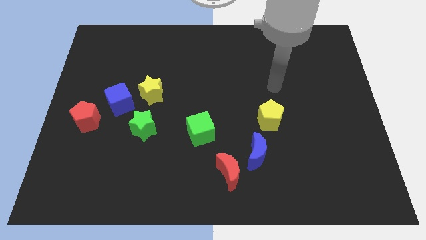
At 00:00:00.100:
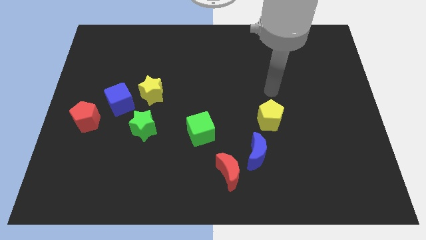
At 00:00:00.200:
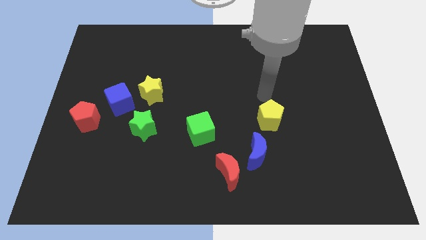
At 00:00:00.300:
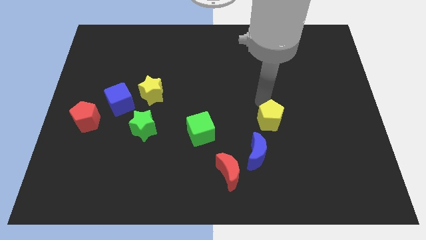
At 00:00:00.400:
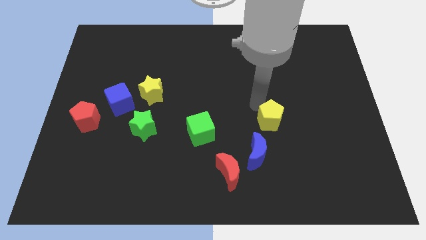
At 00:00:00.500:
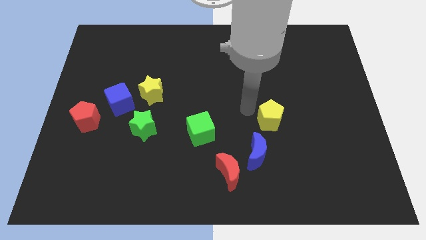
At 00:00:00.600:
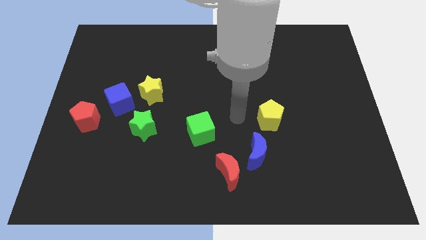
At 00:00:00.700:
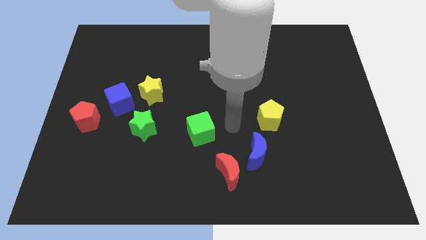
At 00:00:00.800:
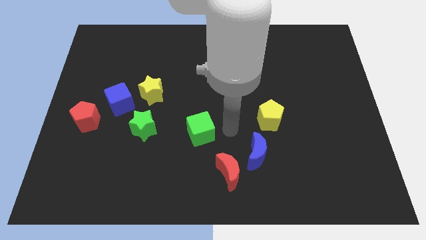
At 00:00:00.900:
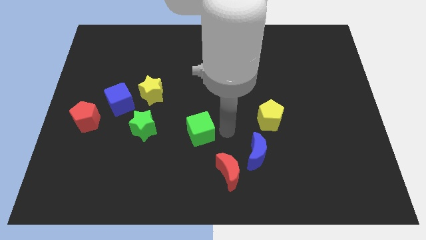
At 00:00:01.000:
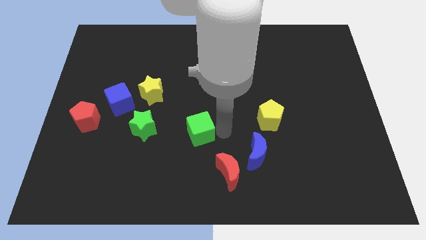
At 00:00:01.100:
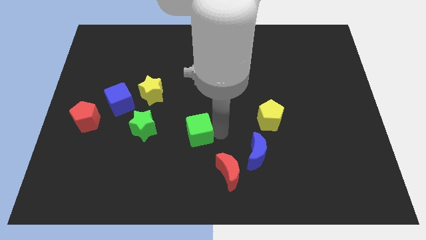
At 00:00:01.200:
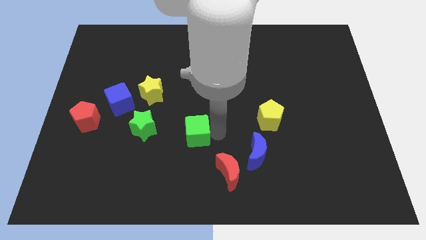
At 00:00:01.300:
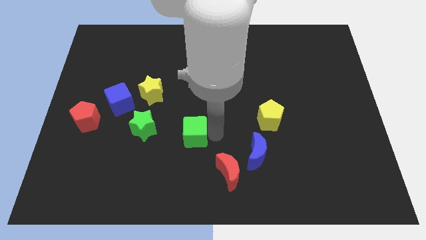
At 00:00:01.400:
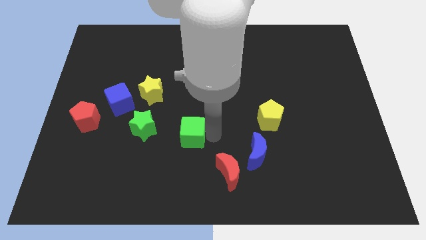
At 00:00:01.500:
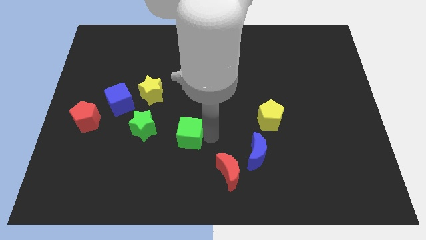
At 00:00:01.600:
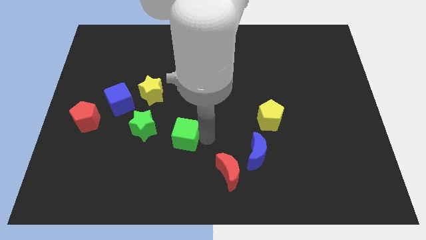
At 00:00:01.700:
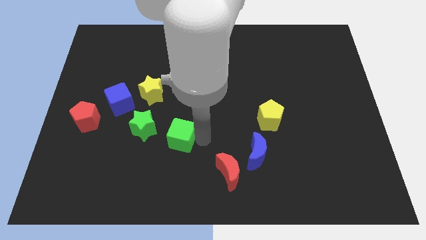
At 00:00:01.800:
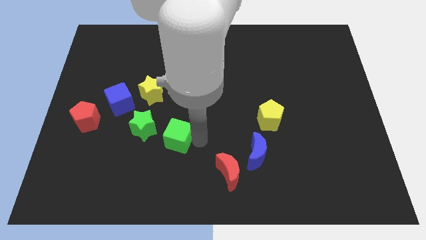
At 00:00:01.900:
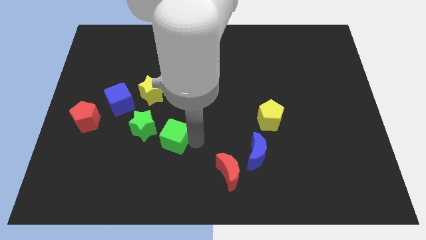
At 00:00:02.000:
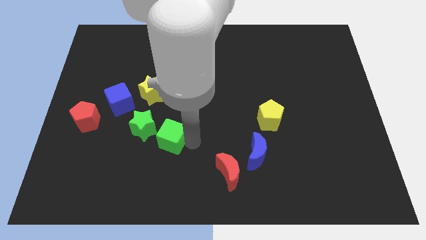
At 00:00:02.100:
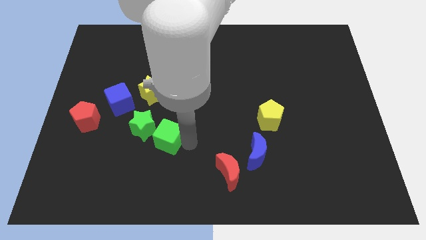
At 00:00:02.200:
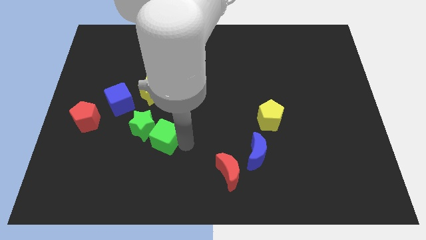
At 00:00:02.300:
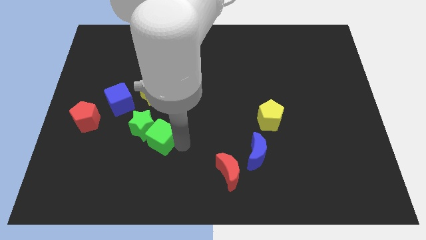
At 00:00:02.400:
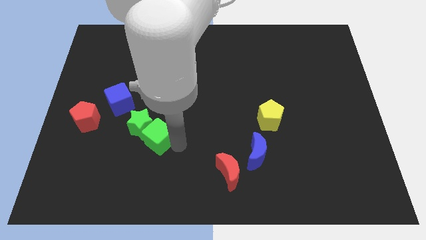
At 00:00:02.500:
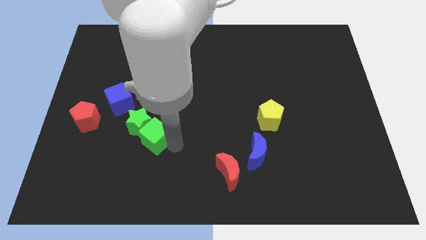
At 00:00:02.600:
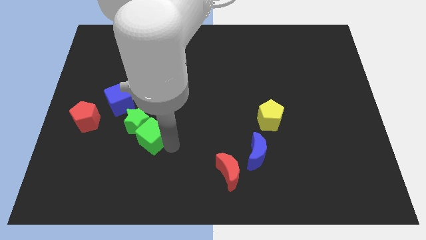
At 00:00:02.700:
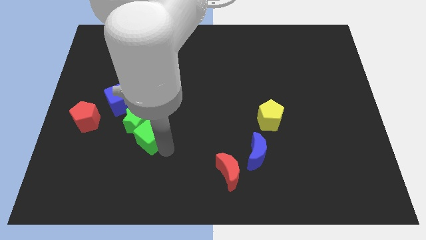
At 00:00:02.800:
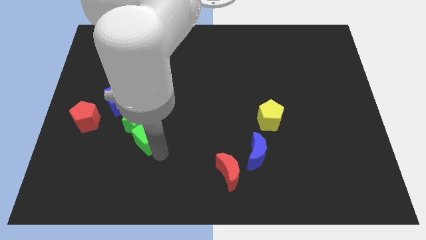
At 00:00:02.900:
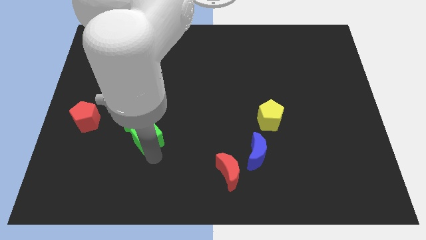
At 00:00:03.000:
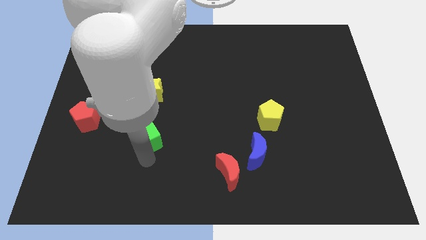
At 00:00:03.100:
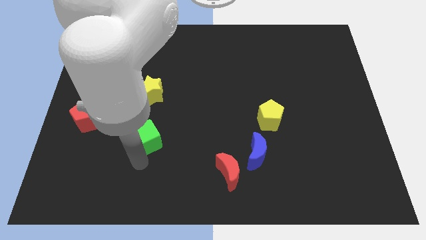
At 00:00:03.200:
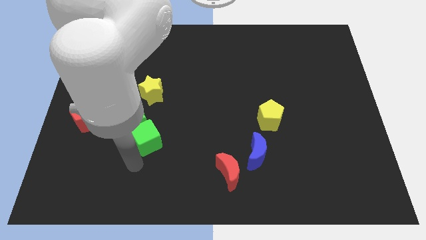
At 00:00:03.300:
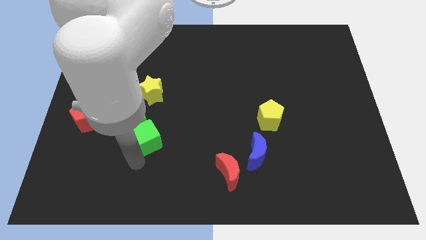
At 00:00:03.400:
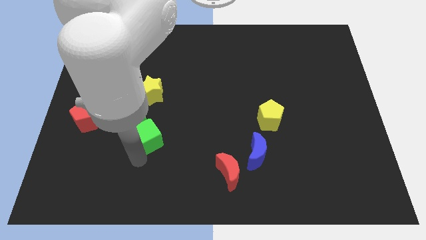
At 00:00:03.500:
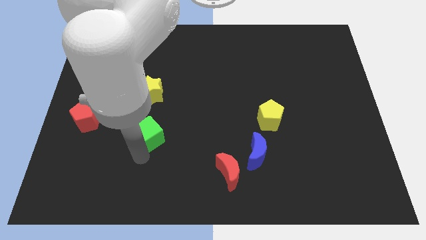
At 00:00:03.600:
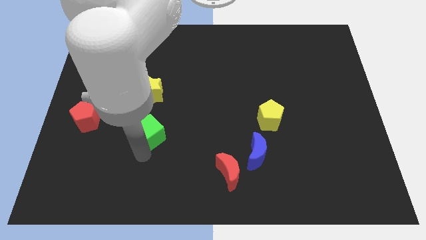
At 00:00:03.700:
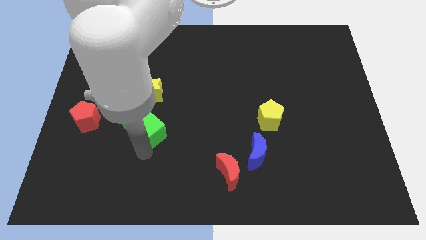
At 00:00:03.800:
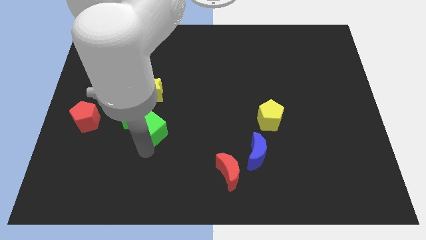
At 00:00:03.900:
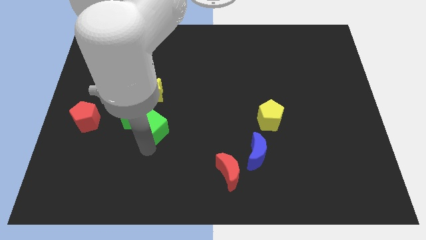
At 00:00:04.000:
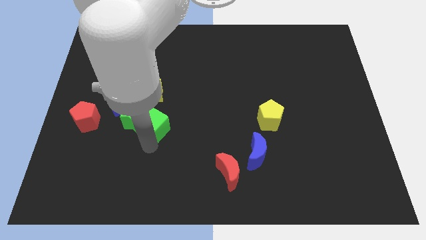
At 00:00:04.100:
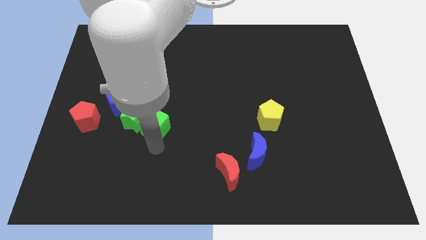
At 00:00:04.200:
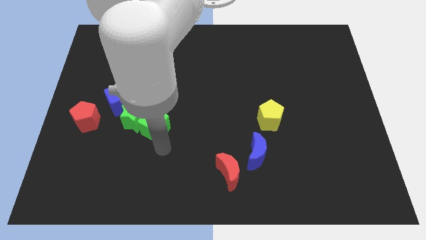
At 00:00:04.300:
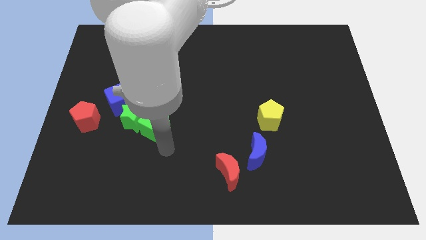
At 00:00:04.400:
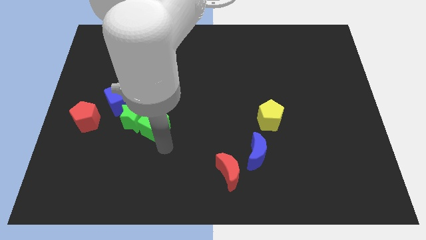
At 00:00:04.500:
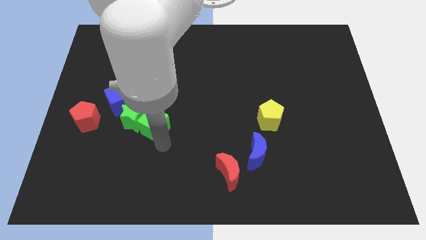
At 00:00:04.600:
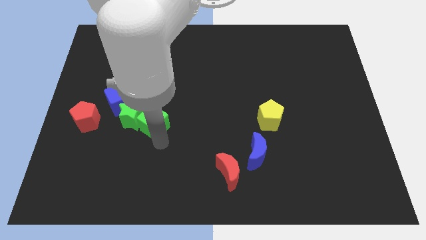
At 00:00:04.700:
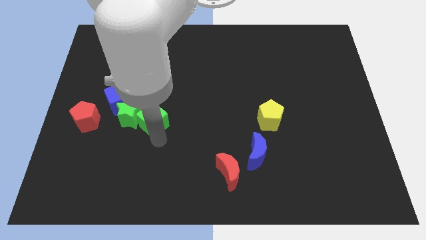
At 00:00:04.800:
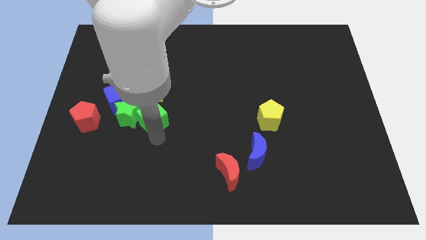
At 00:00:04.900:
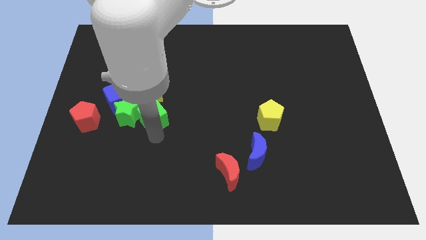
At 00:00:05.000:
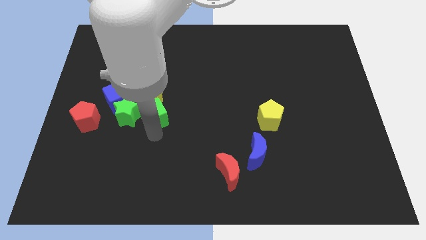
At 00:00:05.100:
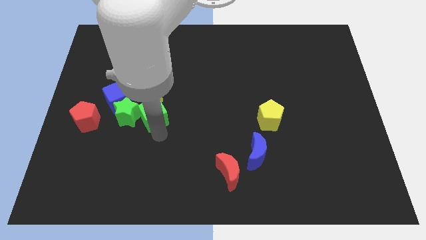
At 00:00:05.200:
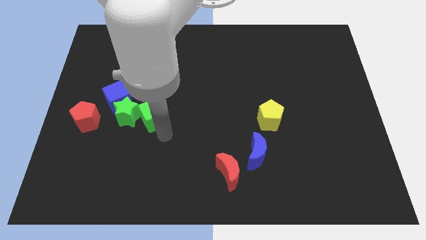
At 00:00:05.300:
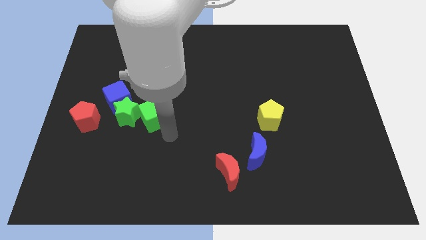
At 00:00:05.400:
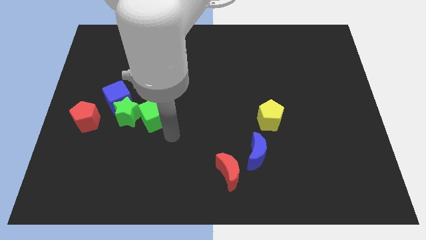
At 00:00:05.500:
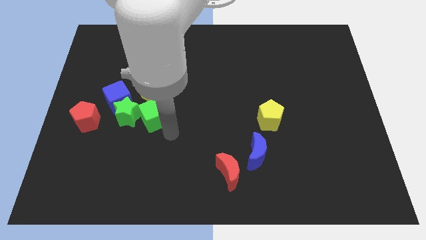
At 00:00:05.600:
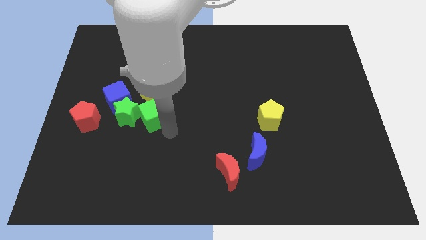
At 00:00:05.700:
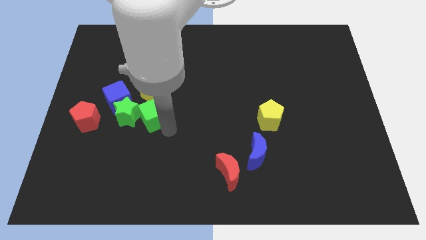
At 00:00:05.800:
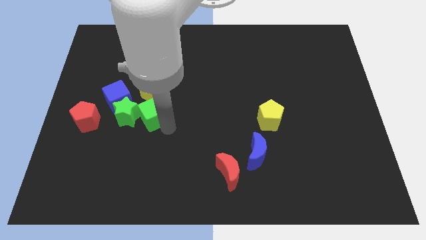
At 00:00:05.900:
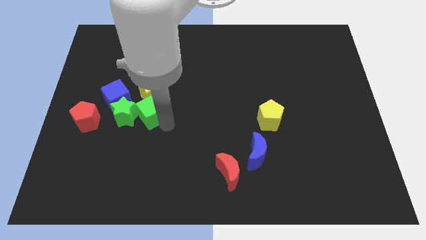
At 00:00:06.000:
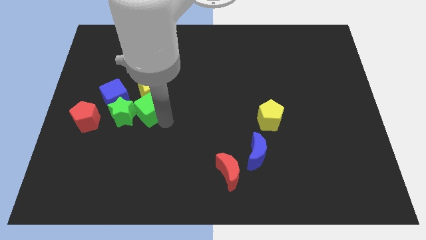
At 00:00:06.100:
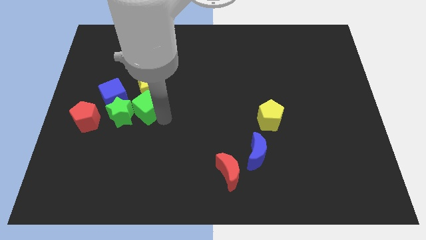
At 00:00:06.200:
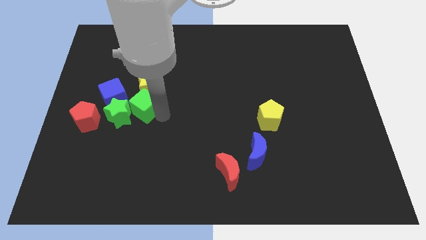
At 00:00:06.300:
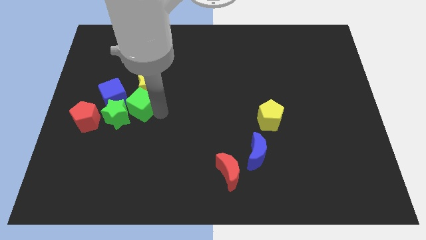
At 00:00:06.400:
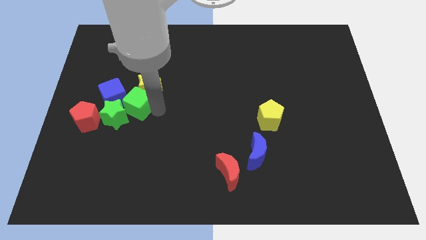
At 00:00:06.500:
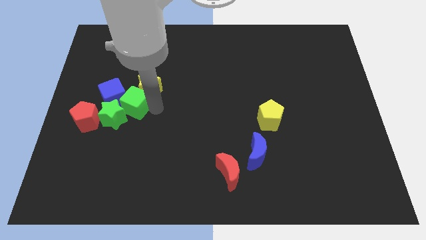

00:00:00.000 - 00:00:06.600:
push the green cube to the blue cube

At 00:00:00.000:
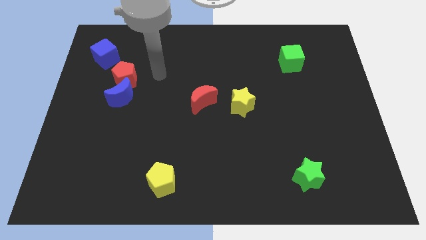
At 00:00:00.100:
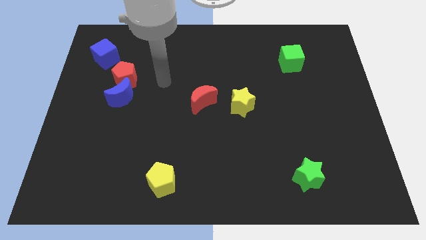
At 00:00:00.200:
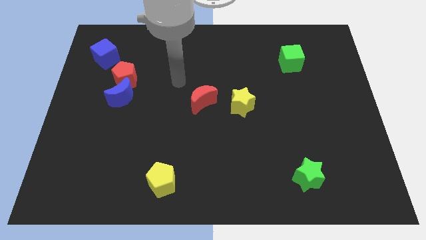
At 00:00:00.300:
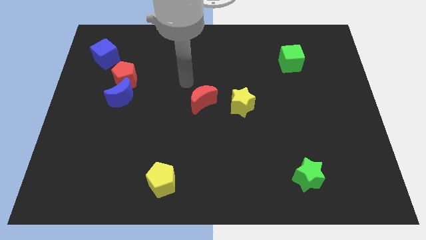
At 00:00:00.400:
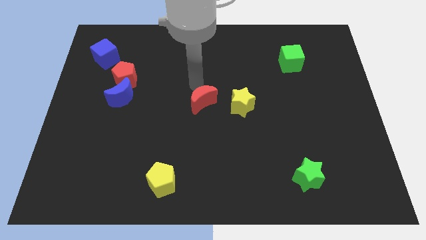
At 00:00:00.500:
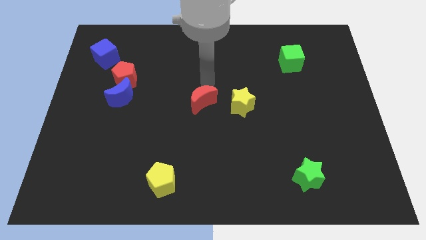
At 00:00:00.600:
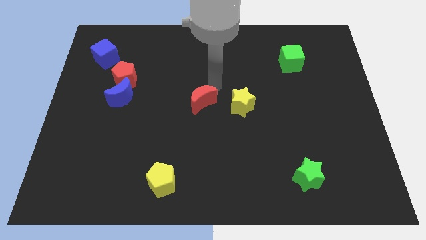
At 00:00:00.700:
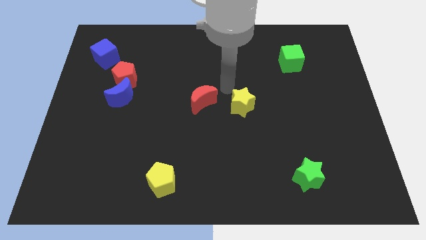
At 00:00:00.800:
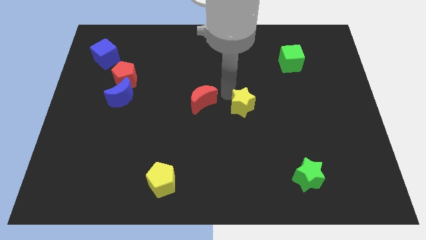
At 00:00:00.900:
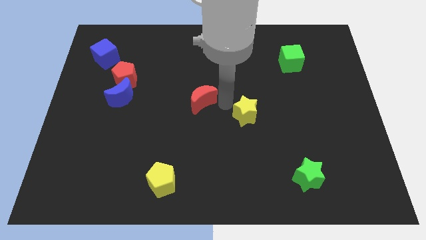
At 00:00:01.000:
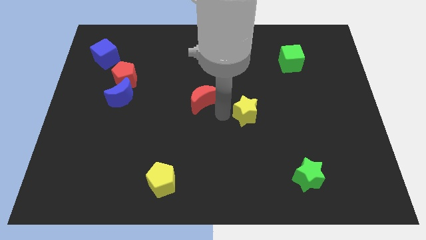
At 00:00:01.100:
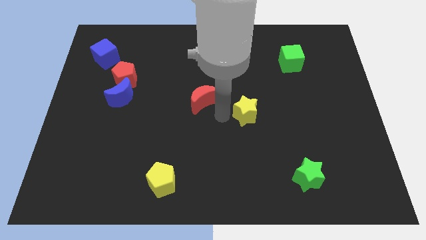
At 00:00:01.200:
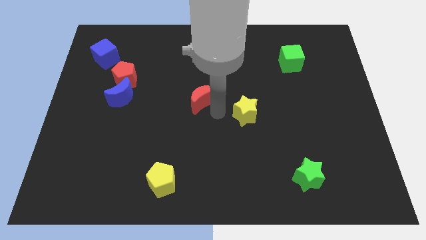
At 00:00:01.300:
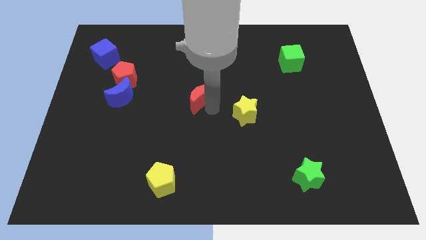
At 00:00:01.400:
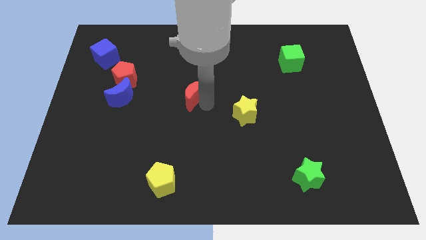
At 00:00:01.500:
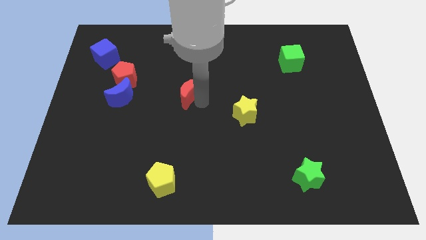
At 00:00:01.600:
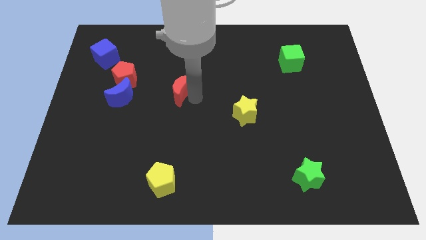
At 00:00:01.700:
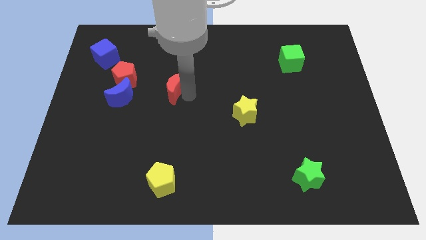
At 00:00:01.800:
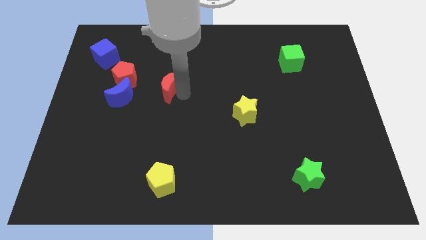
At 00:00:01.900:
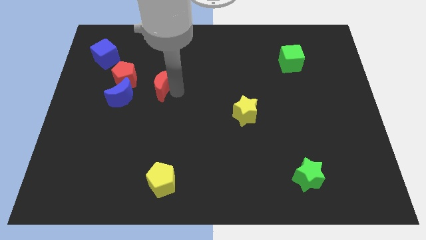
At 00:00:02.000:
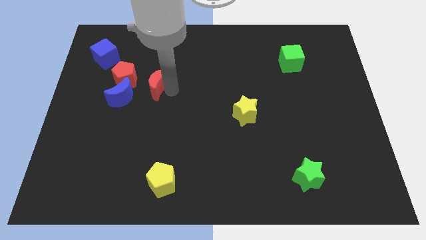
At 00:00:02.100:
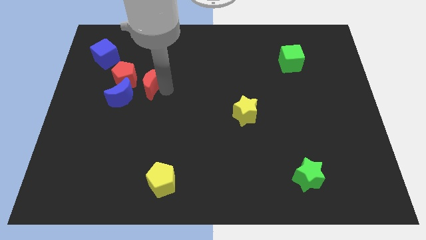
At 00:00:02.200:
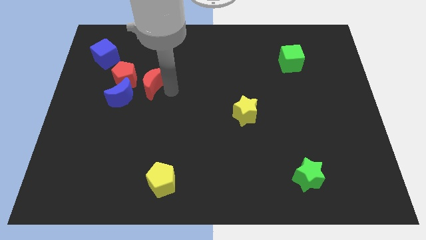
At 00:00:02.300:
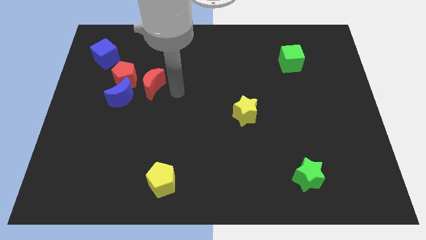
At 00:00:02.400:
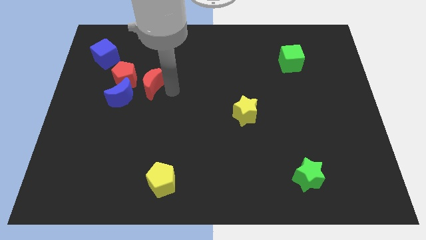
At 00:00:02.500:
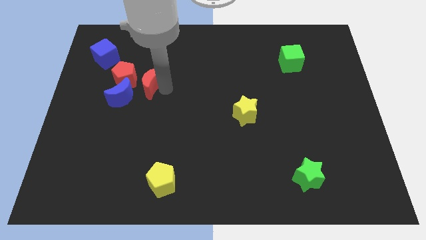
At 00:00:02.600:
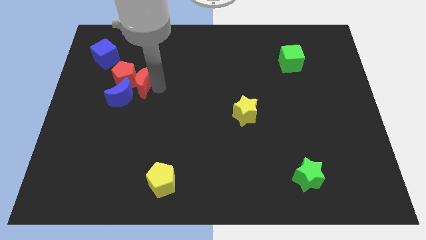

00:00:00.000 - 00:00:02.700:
move the red moon close to the red pentagon
